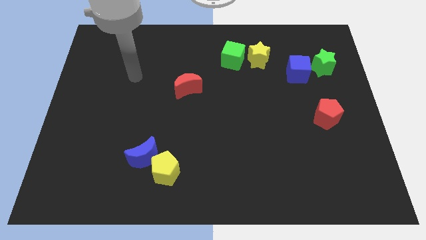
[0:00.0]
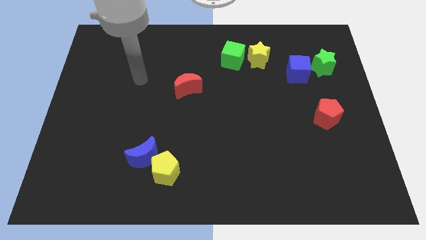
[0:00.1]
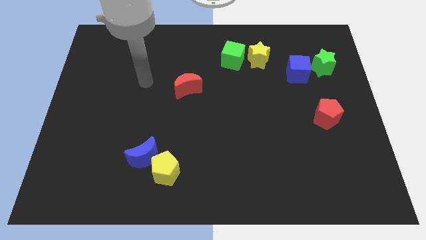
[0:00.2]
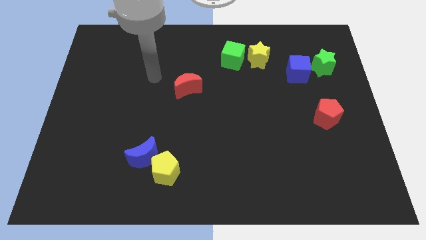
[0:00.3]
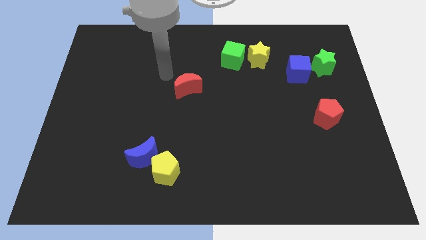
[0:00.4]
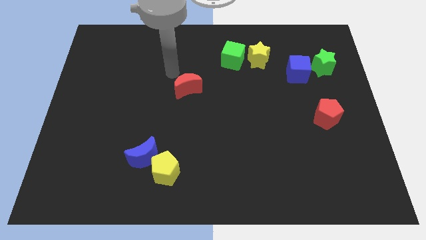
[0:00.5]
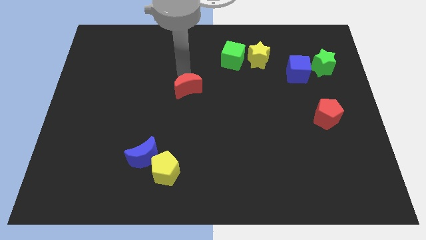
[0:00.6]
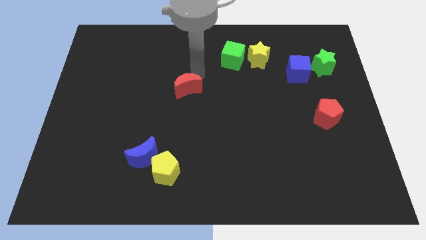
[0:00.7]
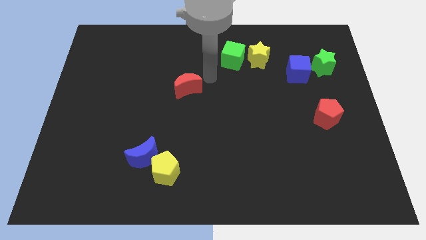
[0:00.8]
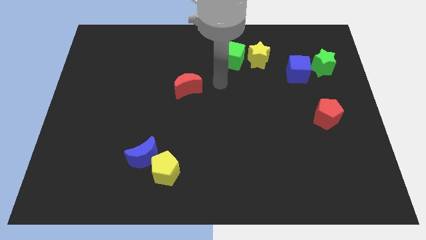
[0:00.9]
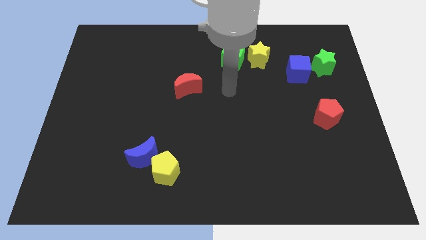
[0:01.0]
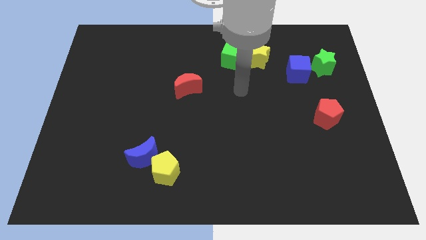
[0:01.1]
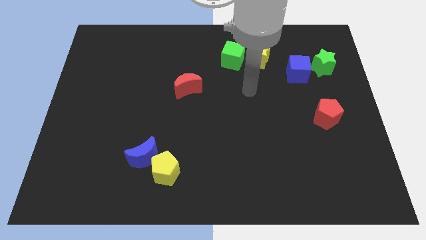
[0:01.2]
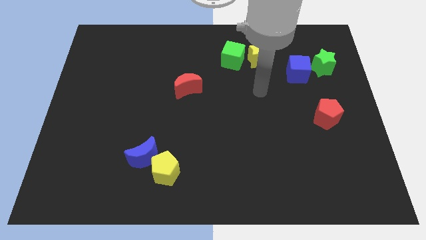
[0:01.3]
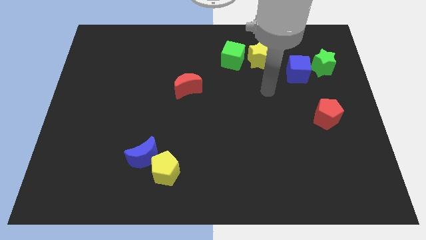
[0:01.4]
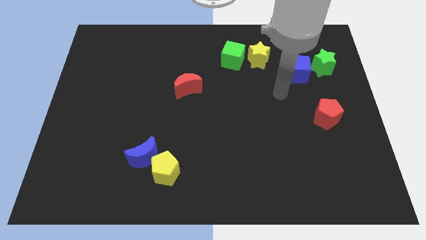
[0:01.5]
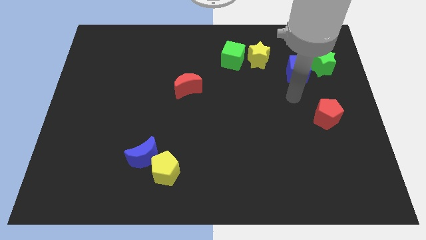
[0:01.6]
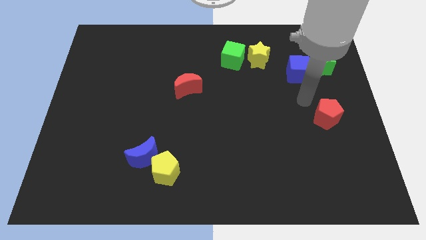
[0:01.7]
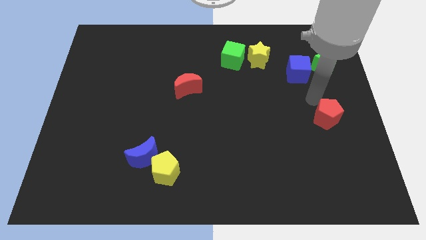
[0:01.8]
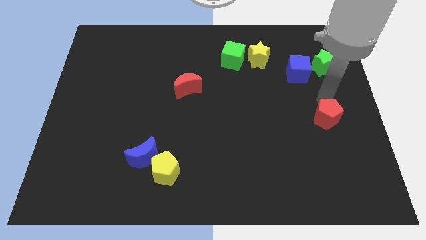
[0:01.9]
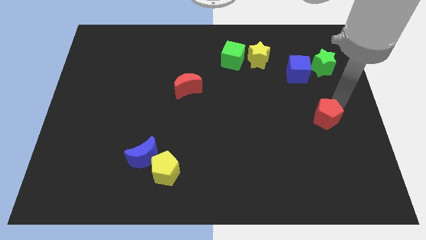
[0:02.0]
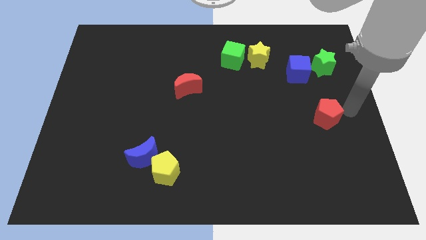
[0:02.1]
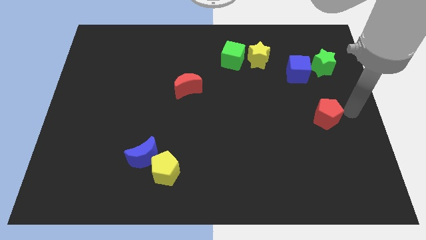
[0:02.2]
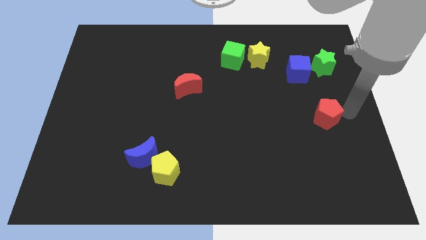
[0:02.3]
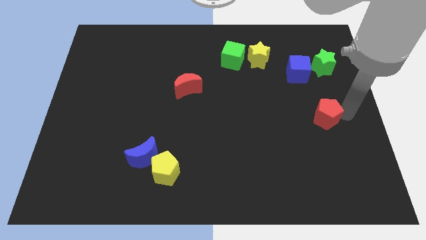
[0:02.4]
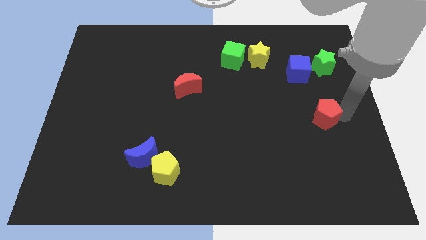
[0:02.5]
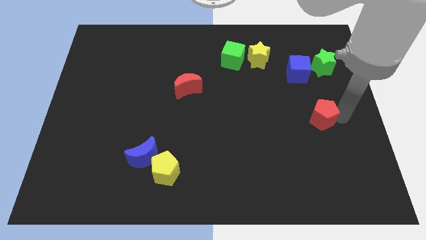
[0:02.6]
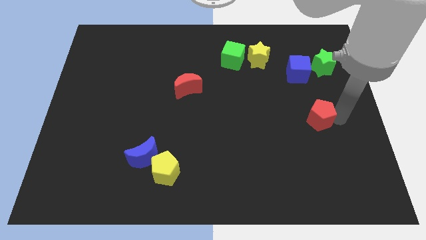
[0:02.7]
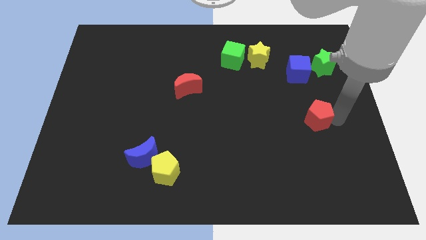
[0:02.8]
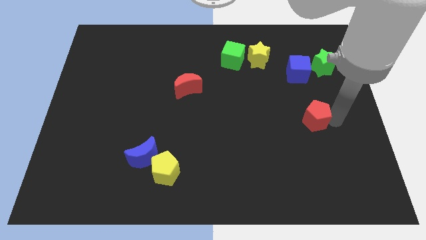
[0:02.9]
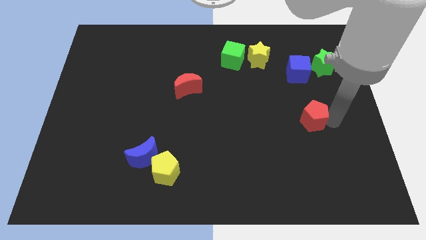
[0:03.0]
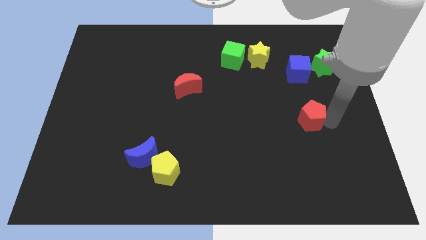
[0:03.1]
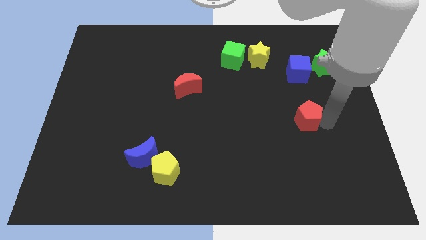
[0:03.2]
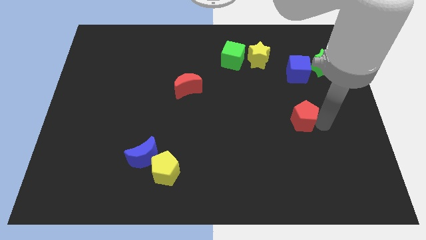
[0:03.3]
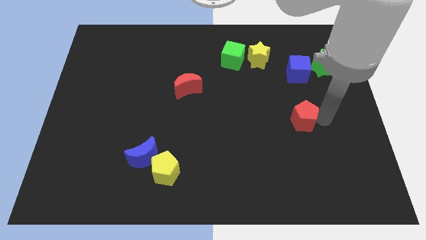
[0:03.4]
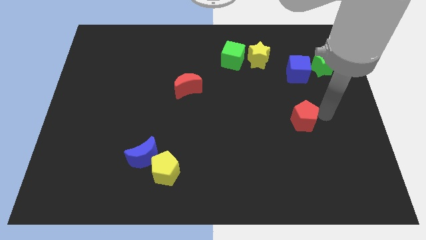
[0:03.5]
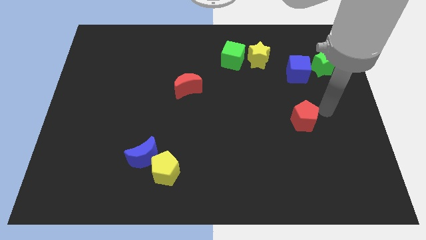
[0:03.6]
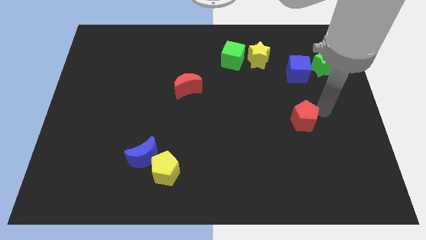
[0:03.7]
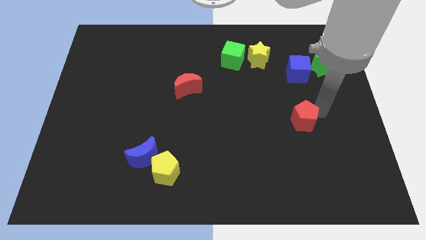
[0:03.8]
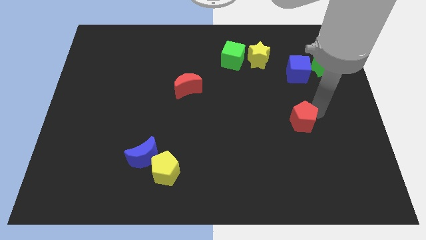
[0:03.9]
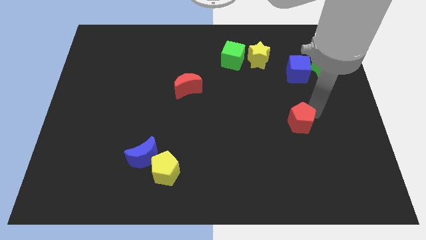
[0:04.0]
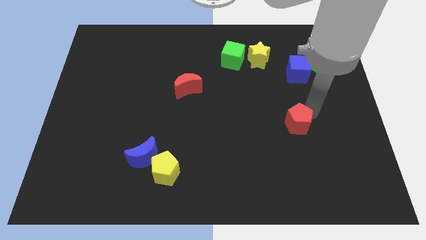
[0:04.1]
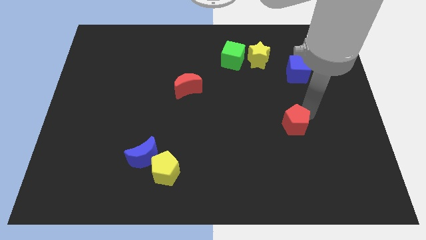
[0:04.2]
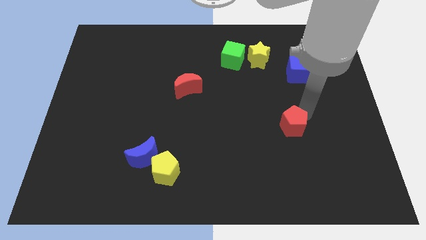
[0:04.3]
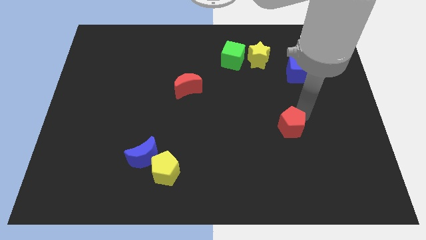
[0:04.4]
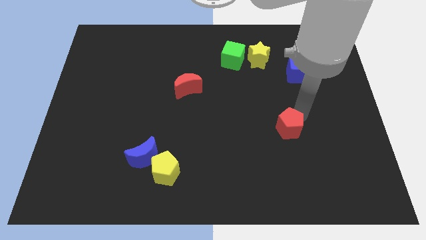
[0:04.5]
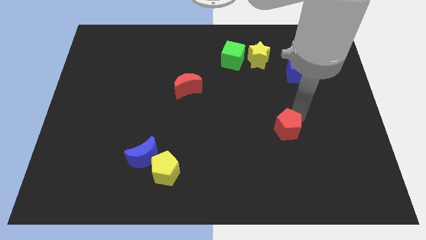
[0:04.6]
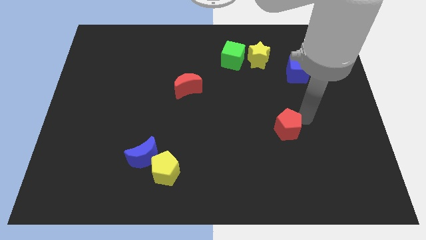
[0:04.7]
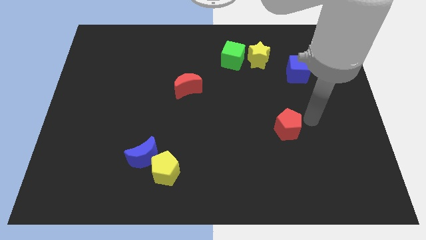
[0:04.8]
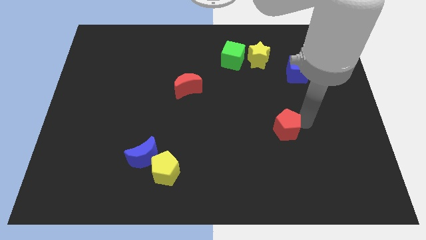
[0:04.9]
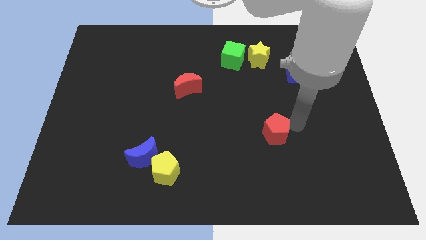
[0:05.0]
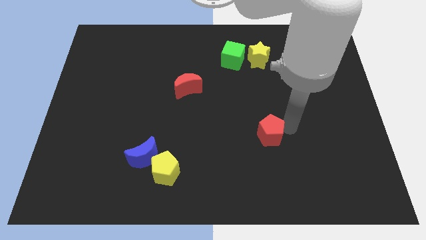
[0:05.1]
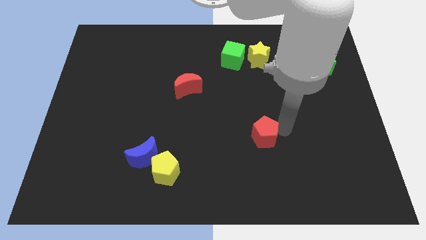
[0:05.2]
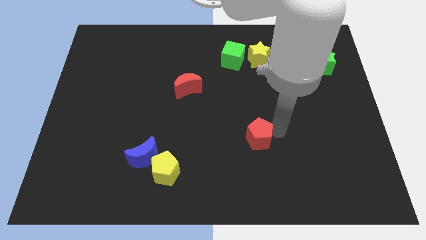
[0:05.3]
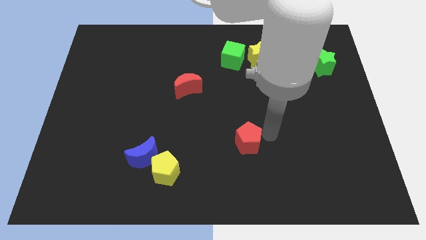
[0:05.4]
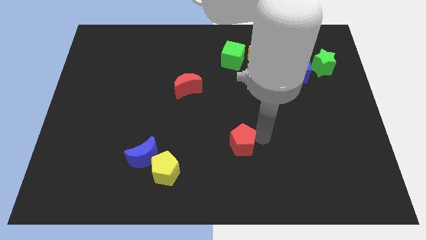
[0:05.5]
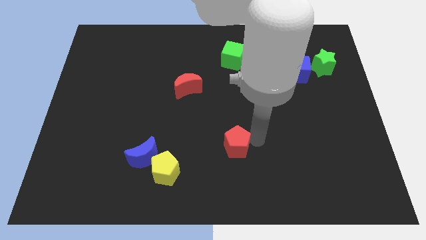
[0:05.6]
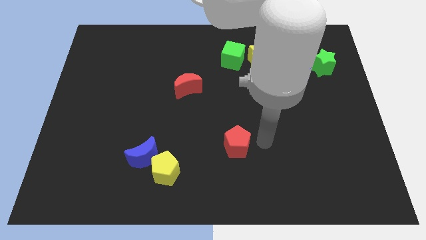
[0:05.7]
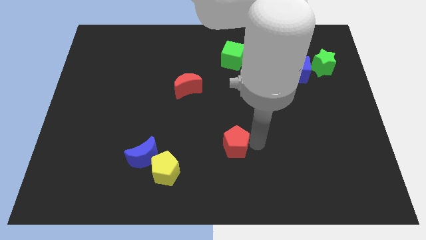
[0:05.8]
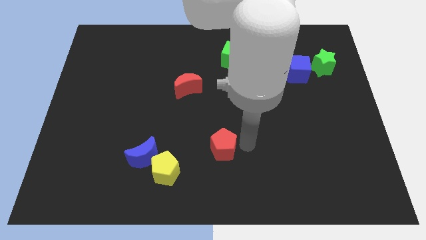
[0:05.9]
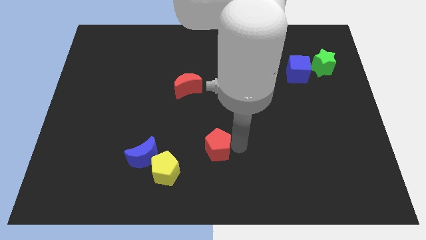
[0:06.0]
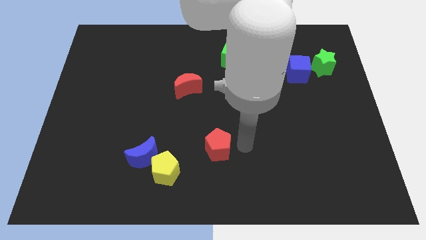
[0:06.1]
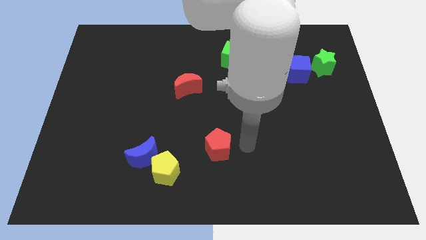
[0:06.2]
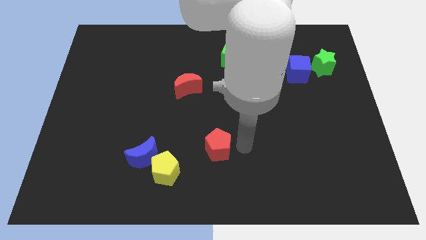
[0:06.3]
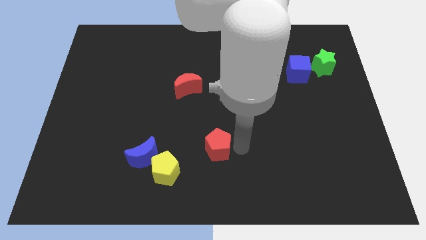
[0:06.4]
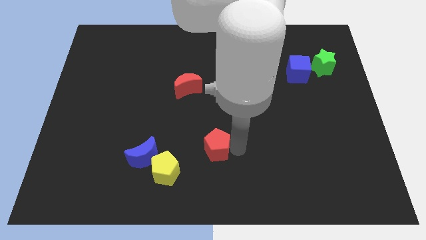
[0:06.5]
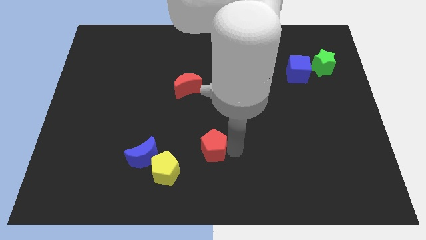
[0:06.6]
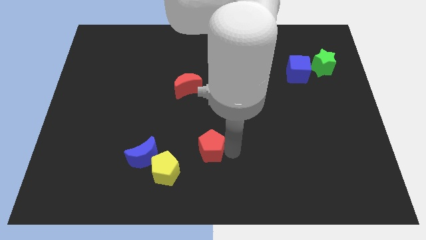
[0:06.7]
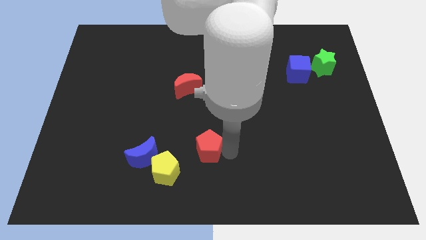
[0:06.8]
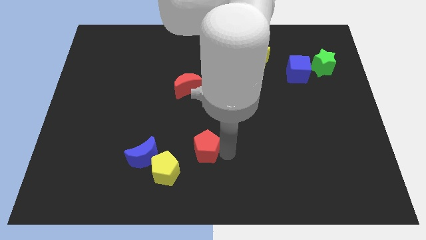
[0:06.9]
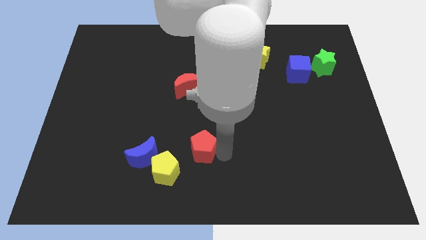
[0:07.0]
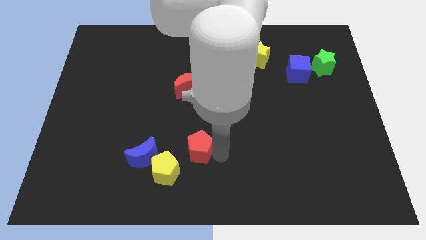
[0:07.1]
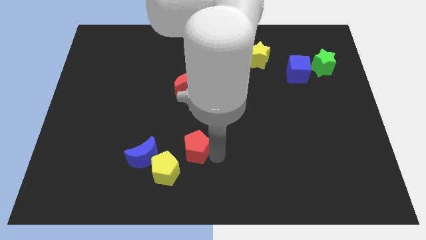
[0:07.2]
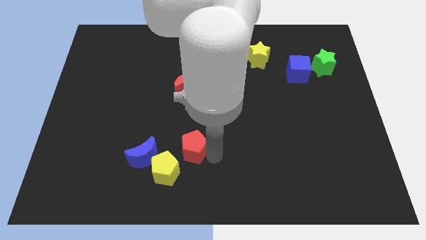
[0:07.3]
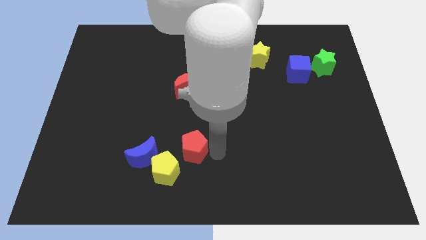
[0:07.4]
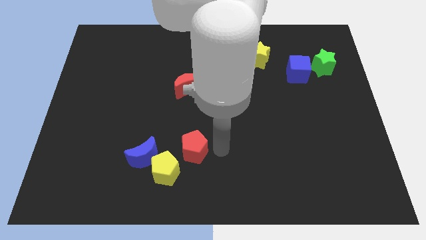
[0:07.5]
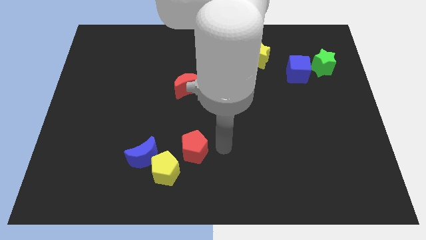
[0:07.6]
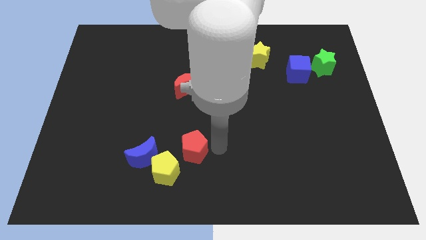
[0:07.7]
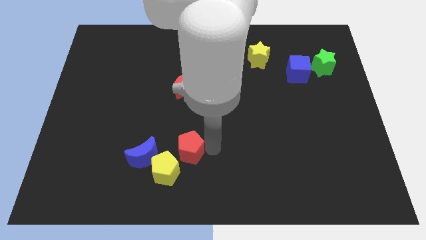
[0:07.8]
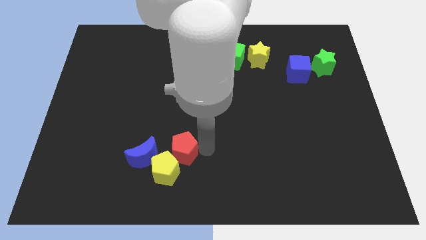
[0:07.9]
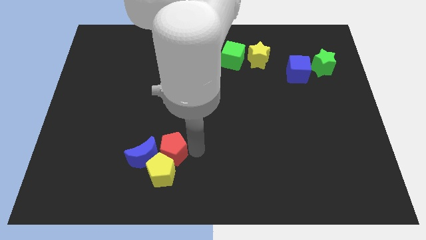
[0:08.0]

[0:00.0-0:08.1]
slide the red pentagon to the blue moon
